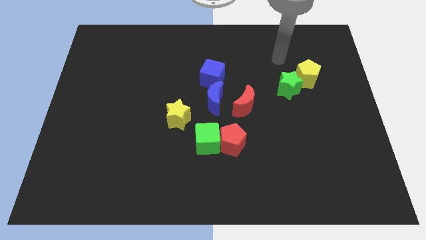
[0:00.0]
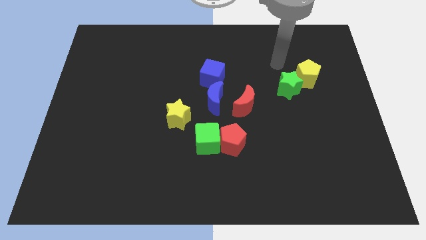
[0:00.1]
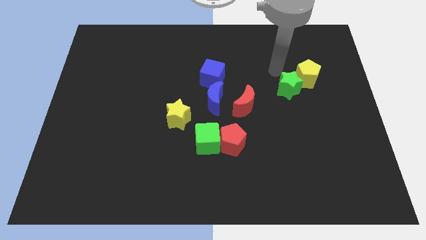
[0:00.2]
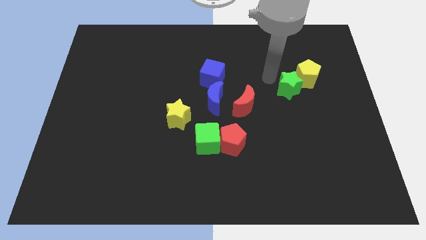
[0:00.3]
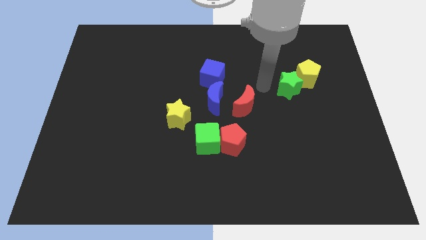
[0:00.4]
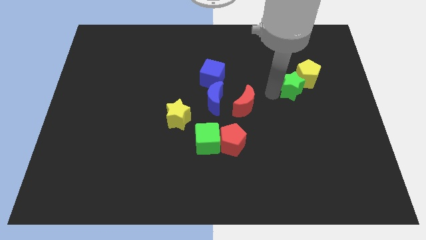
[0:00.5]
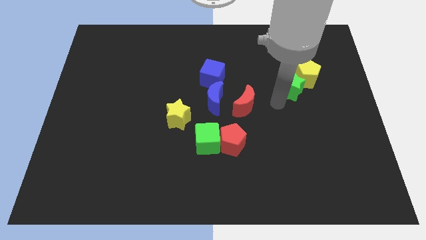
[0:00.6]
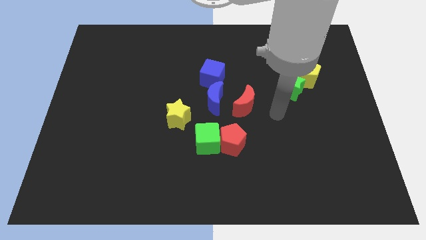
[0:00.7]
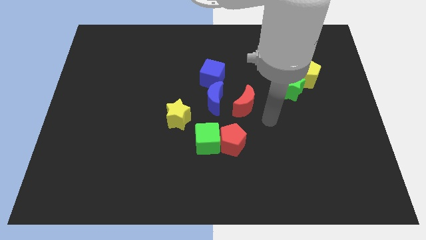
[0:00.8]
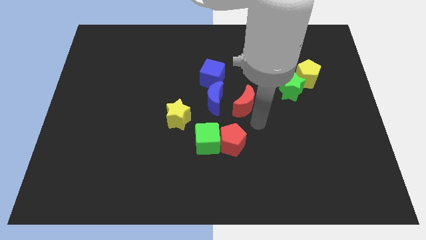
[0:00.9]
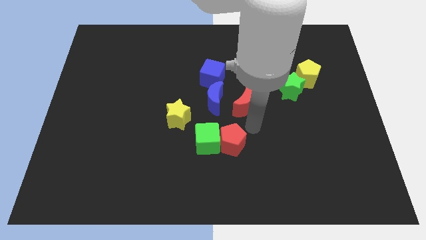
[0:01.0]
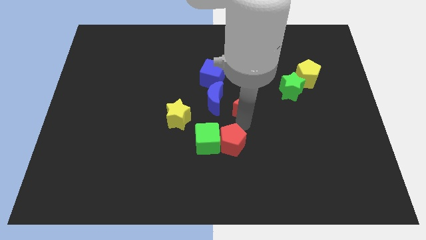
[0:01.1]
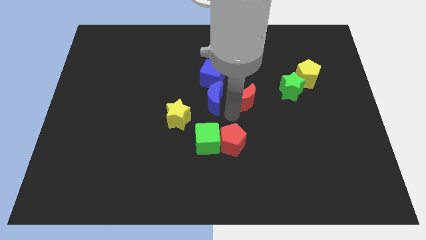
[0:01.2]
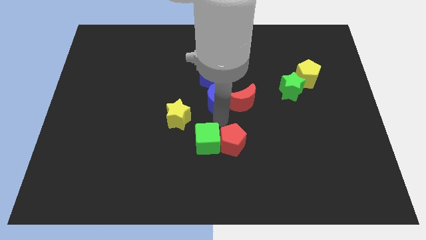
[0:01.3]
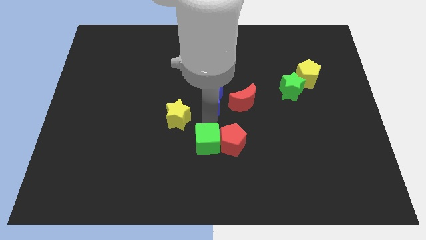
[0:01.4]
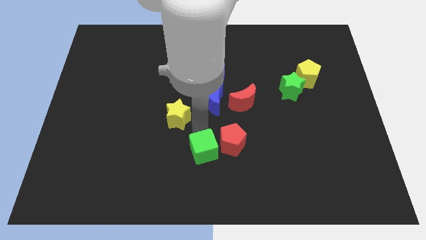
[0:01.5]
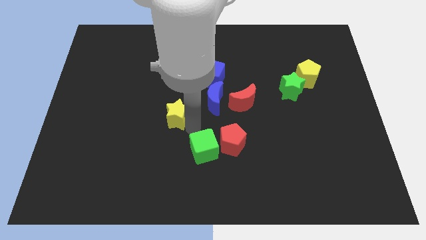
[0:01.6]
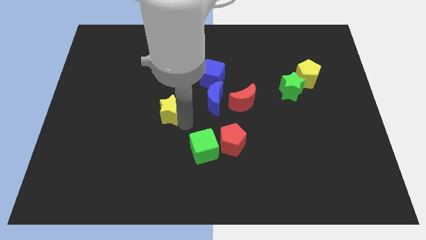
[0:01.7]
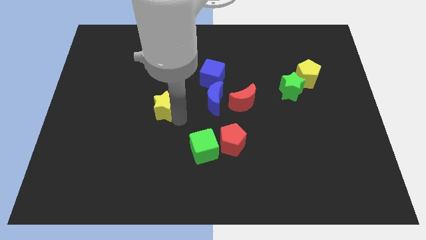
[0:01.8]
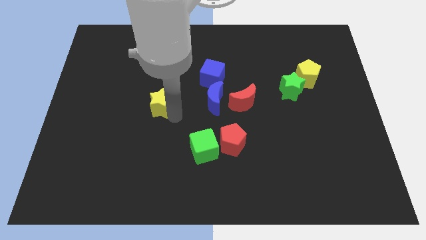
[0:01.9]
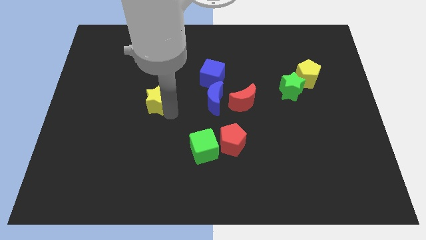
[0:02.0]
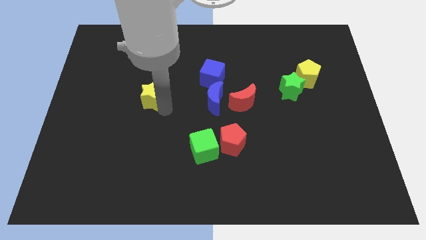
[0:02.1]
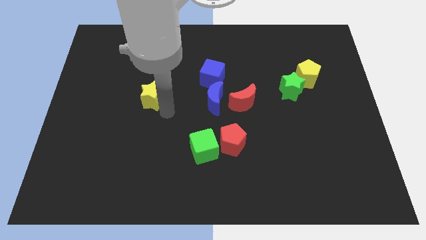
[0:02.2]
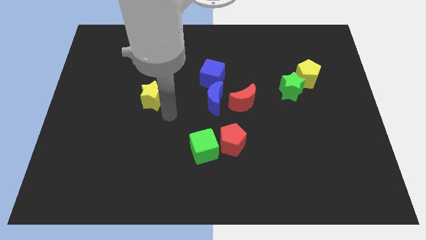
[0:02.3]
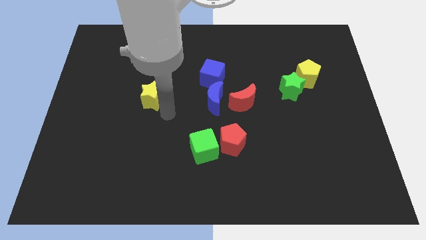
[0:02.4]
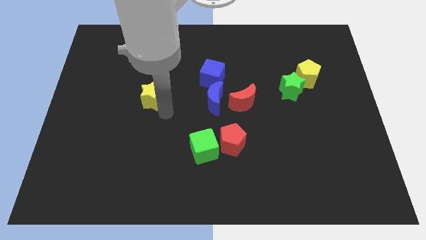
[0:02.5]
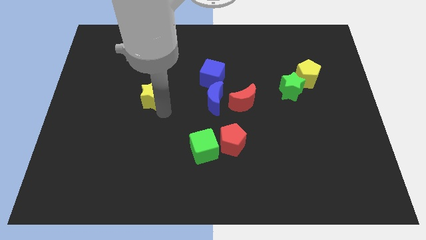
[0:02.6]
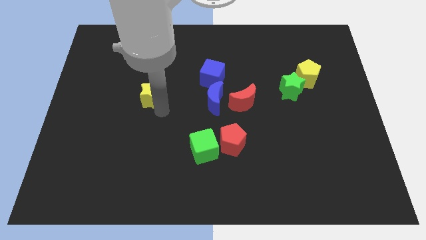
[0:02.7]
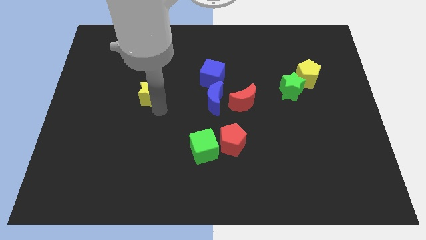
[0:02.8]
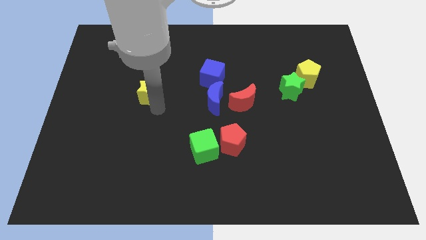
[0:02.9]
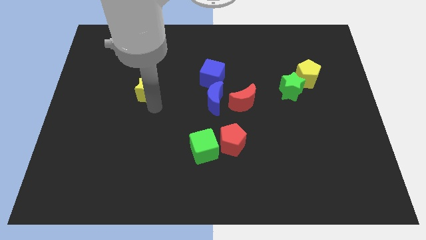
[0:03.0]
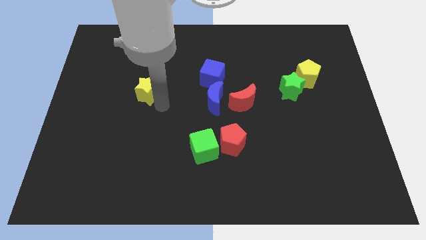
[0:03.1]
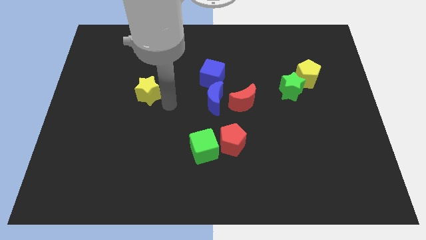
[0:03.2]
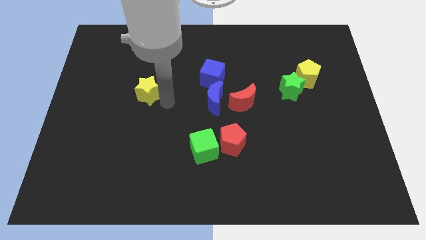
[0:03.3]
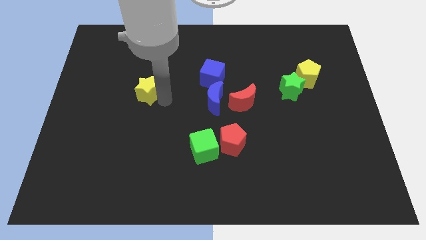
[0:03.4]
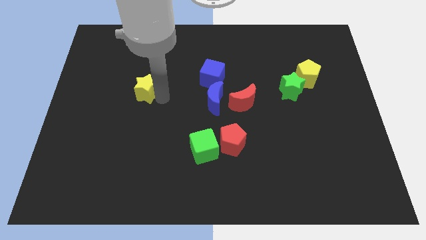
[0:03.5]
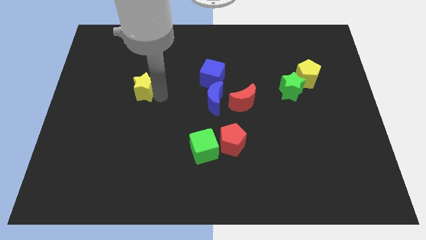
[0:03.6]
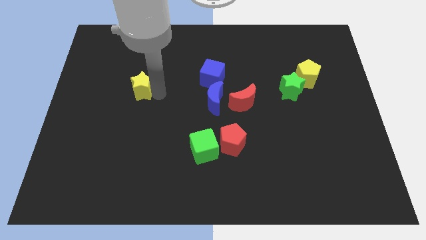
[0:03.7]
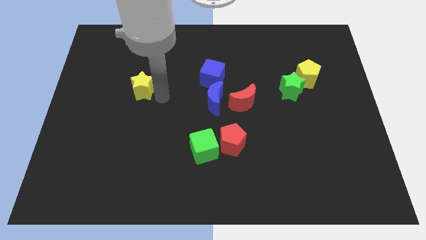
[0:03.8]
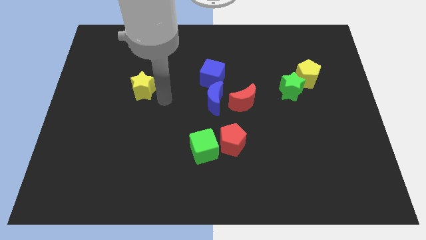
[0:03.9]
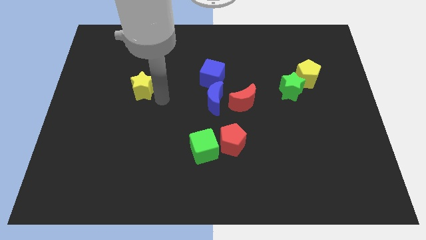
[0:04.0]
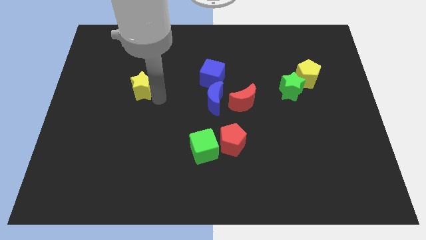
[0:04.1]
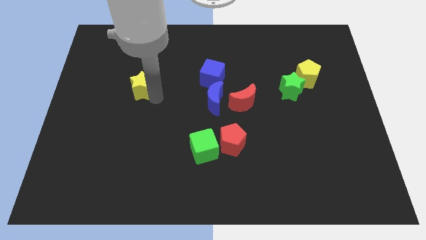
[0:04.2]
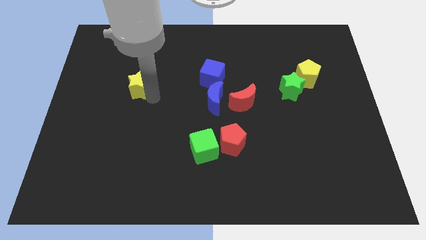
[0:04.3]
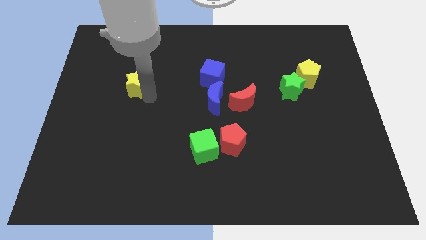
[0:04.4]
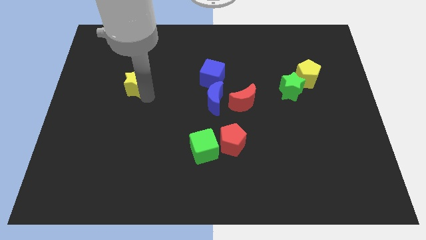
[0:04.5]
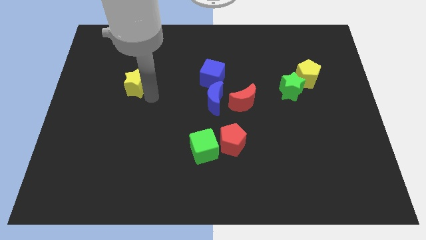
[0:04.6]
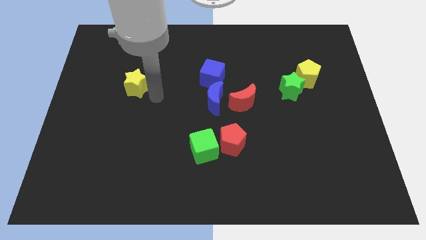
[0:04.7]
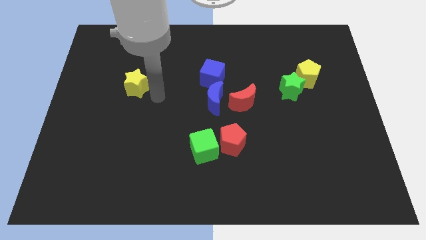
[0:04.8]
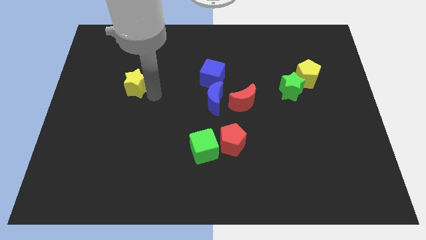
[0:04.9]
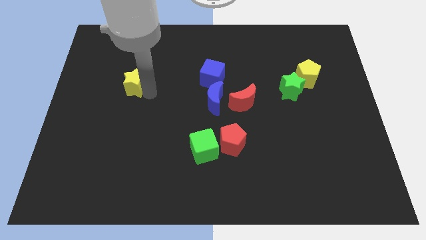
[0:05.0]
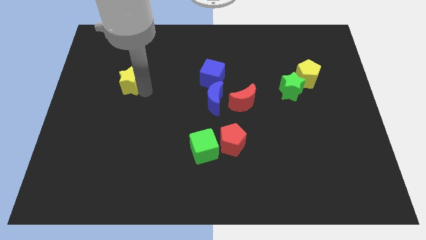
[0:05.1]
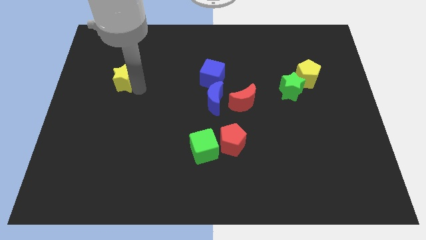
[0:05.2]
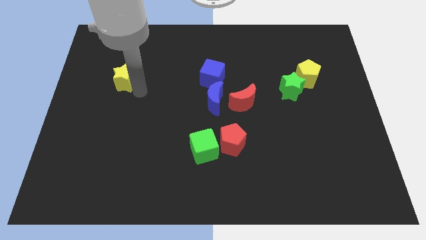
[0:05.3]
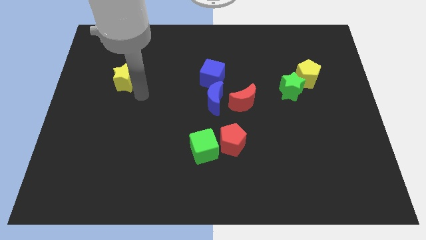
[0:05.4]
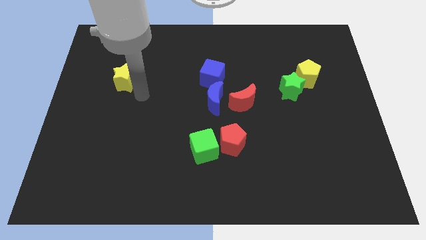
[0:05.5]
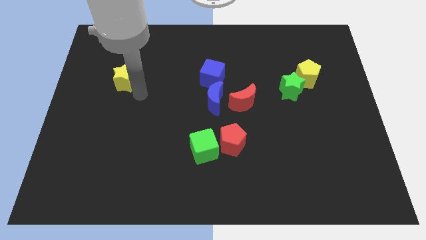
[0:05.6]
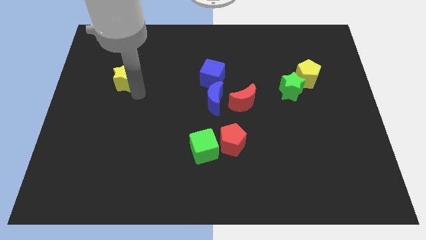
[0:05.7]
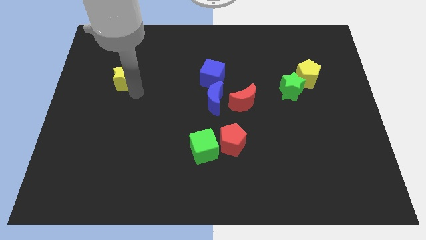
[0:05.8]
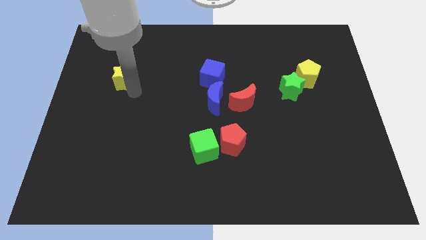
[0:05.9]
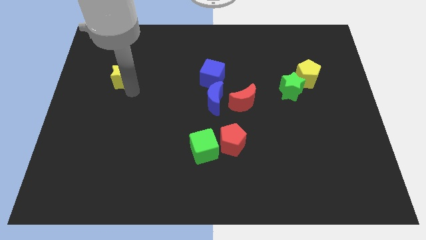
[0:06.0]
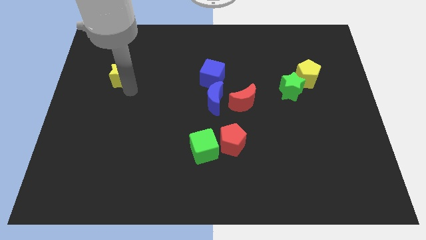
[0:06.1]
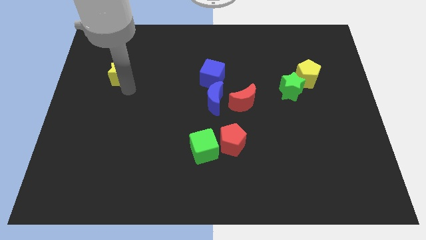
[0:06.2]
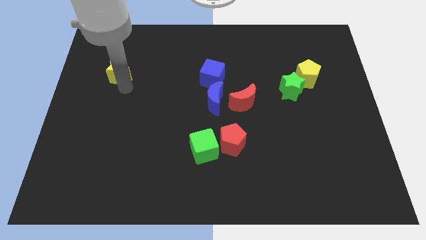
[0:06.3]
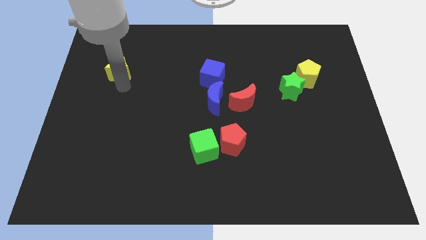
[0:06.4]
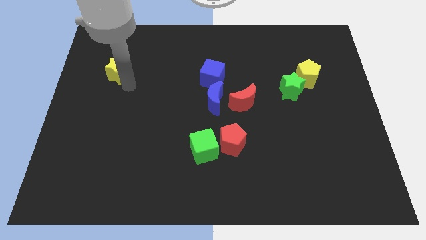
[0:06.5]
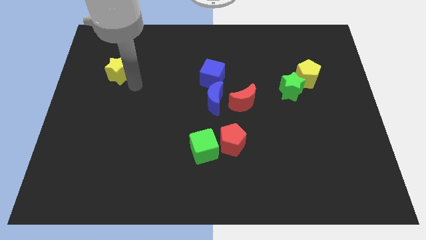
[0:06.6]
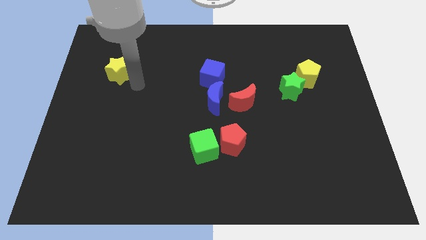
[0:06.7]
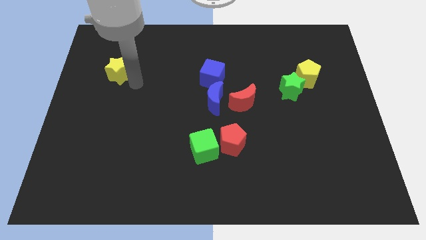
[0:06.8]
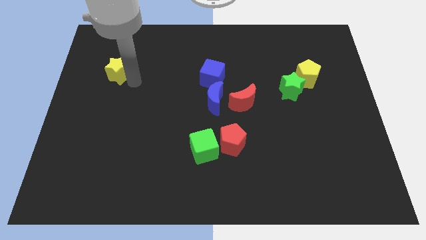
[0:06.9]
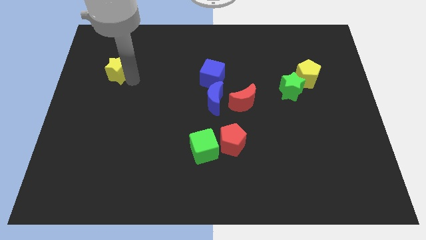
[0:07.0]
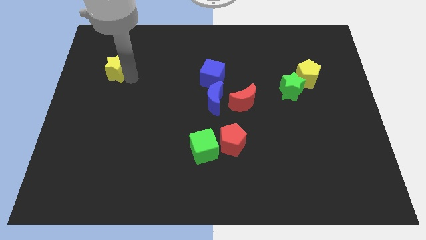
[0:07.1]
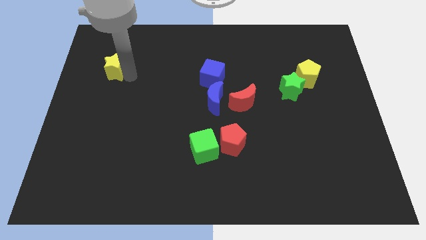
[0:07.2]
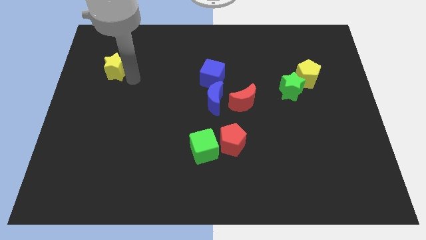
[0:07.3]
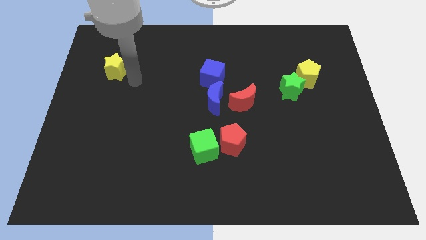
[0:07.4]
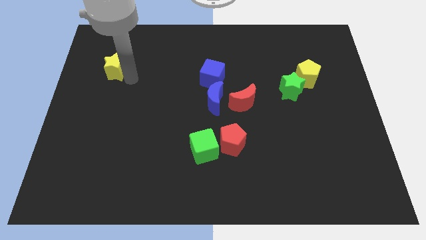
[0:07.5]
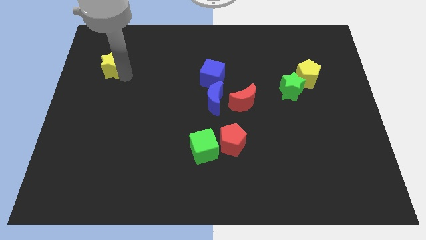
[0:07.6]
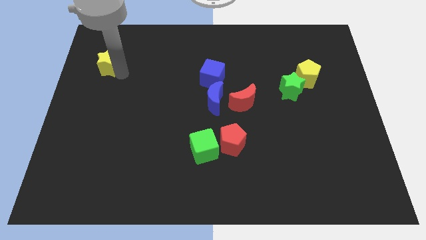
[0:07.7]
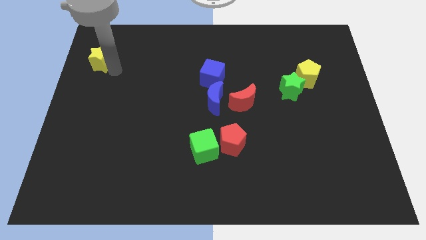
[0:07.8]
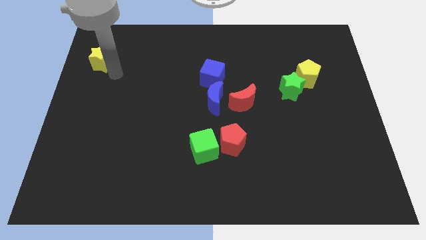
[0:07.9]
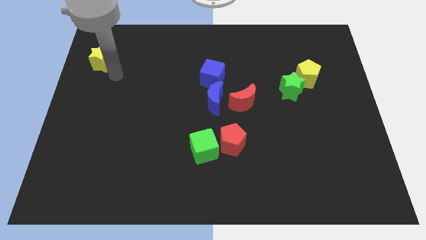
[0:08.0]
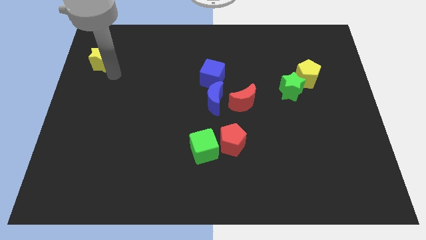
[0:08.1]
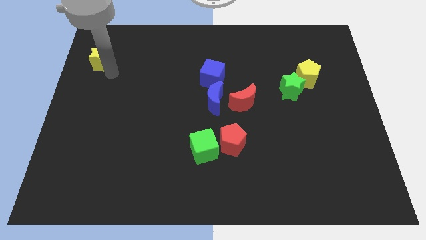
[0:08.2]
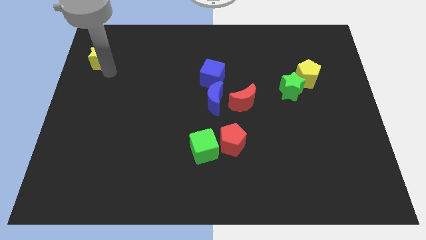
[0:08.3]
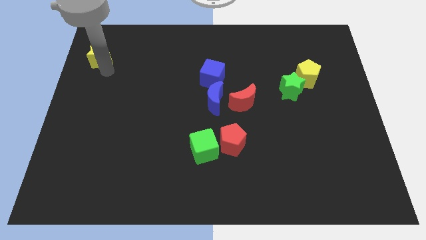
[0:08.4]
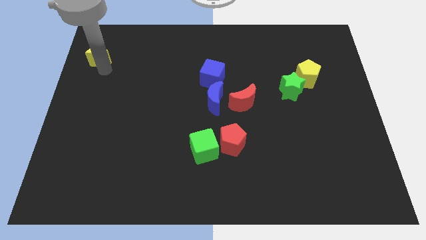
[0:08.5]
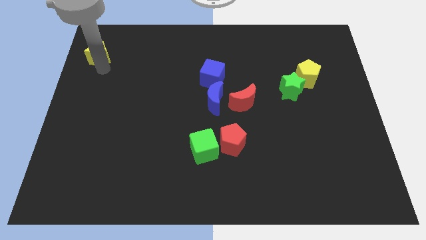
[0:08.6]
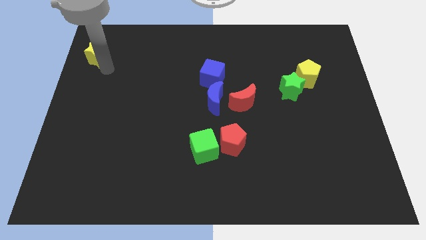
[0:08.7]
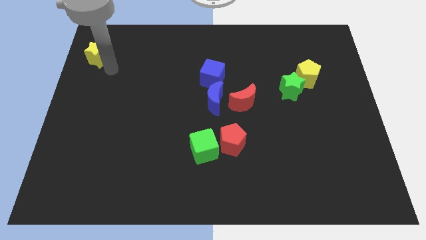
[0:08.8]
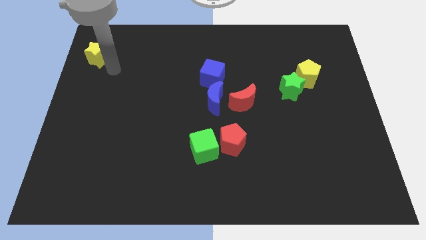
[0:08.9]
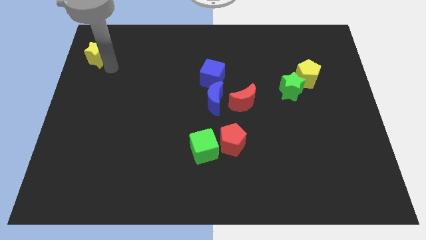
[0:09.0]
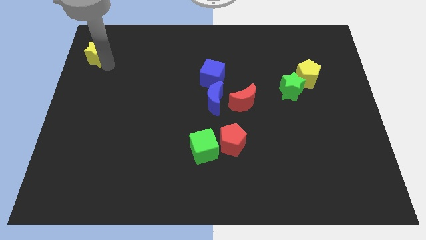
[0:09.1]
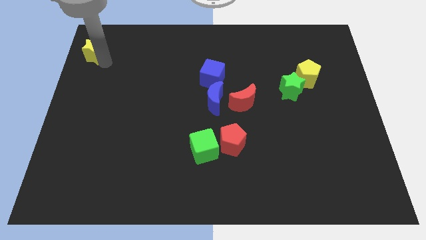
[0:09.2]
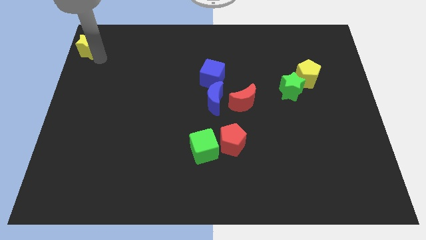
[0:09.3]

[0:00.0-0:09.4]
slide the yellow star to the top left of the board
